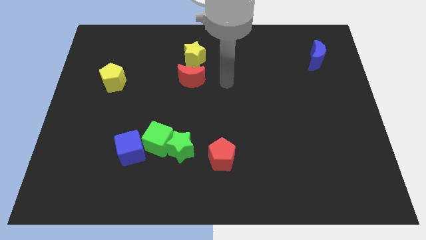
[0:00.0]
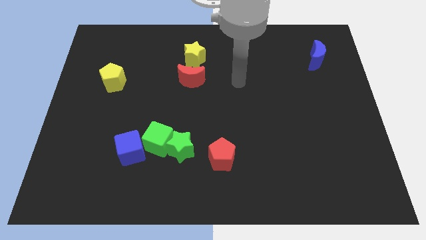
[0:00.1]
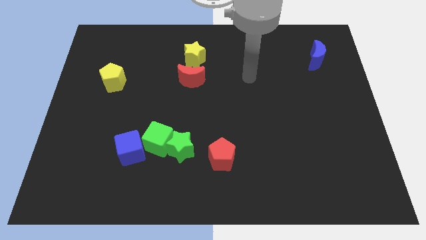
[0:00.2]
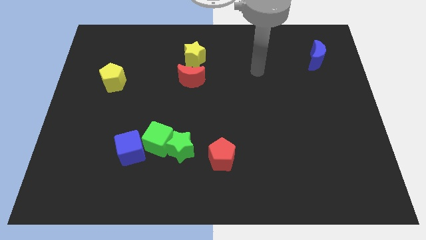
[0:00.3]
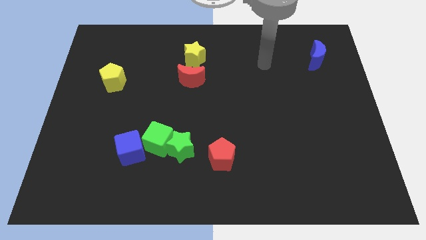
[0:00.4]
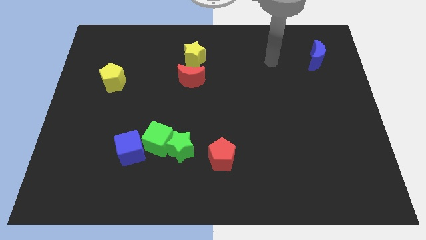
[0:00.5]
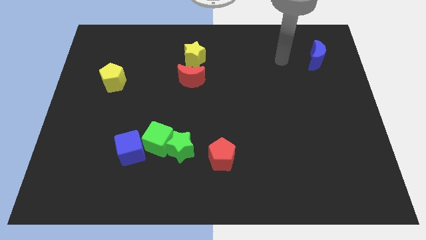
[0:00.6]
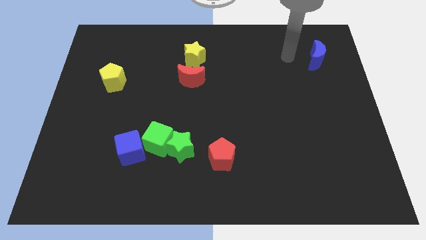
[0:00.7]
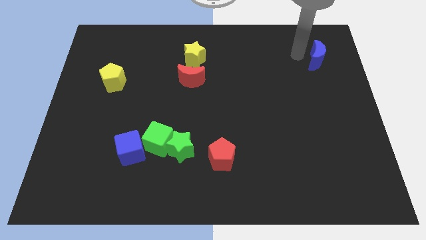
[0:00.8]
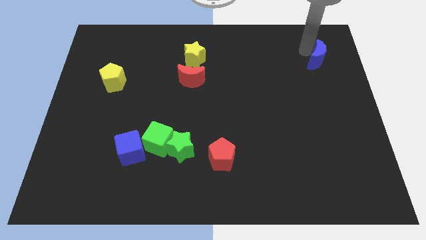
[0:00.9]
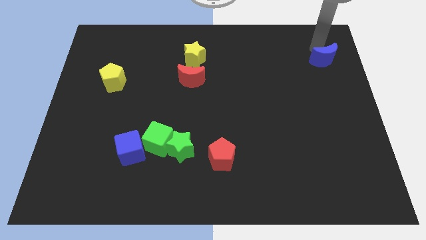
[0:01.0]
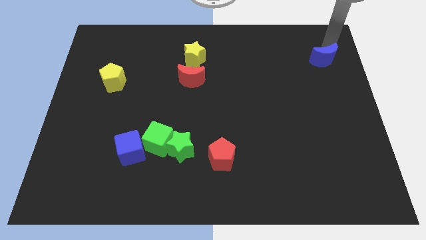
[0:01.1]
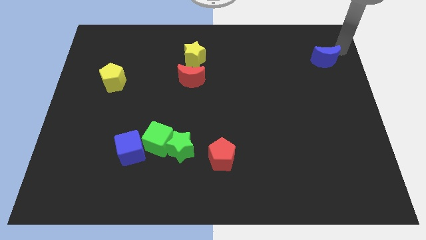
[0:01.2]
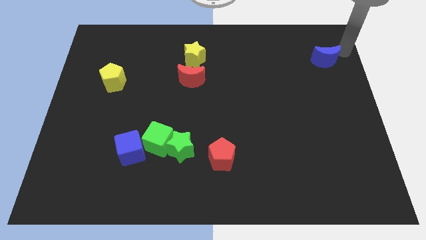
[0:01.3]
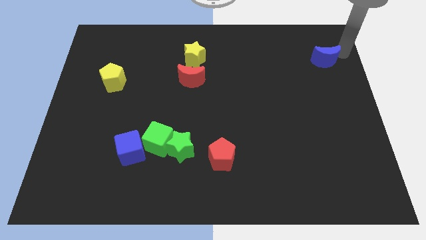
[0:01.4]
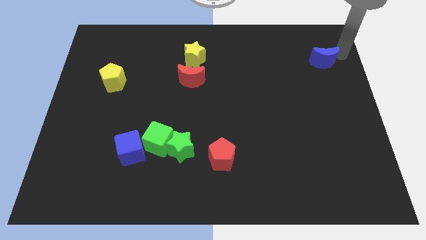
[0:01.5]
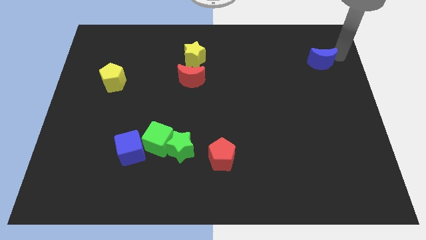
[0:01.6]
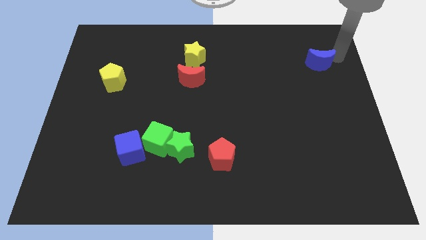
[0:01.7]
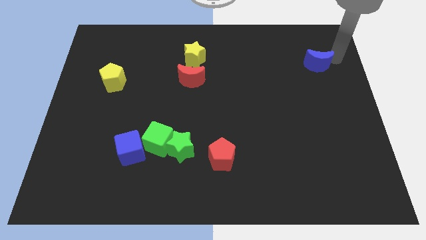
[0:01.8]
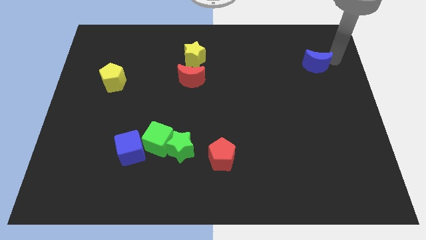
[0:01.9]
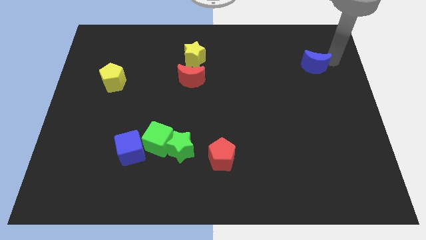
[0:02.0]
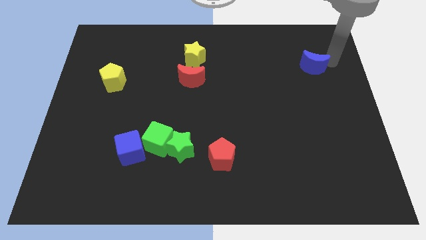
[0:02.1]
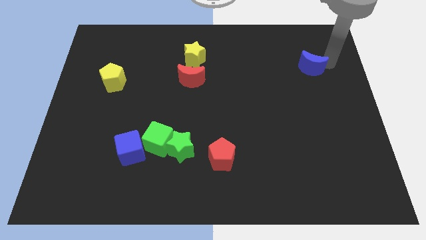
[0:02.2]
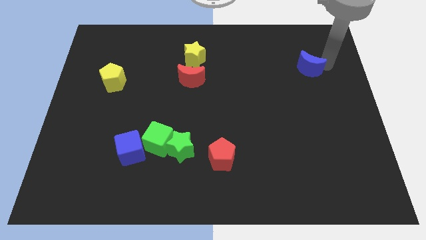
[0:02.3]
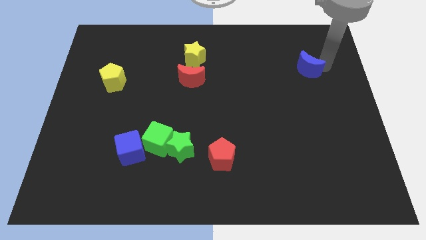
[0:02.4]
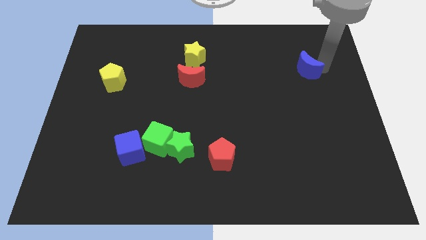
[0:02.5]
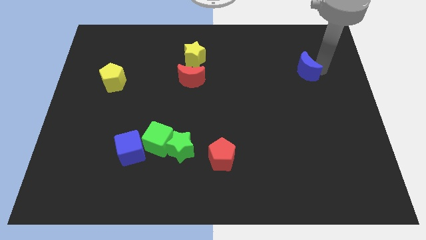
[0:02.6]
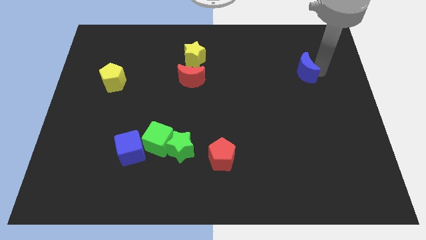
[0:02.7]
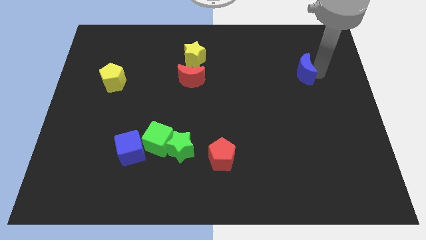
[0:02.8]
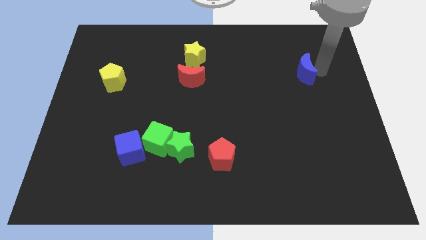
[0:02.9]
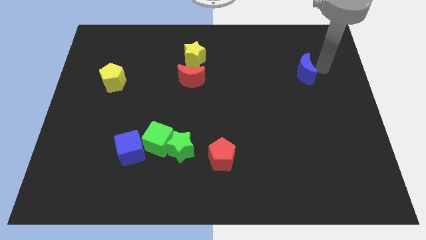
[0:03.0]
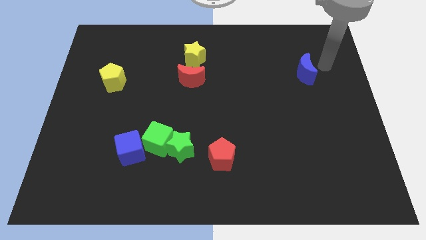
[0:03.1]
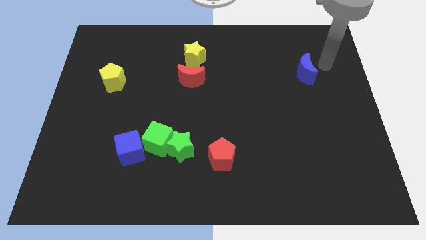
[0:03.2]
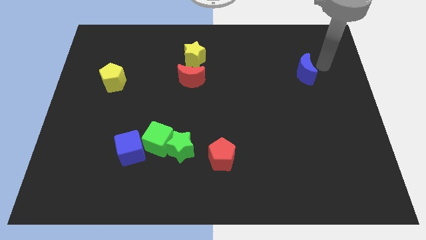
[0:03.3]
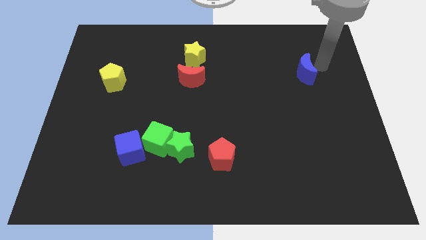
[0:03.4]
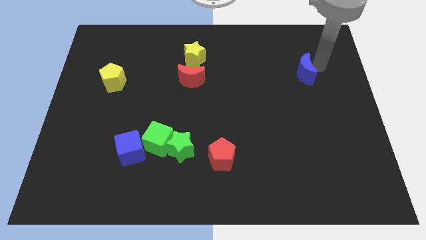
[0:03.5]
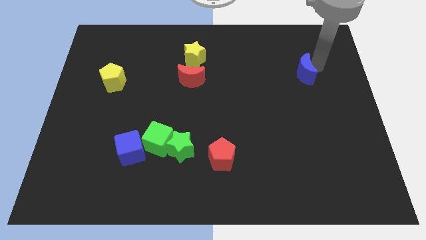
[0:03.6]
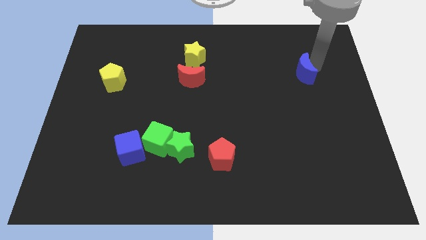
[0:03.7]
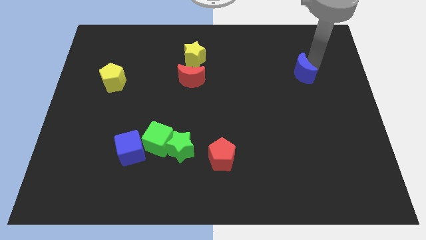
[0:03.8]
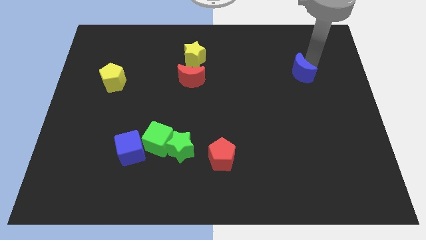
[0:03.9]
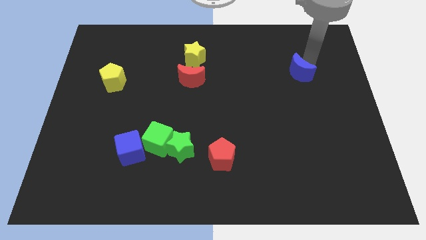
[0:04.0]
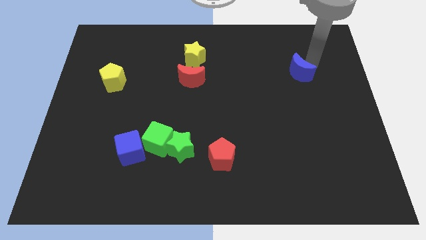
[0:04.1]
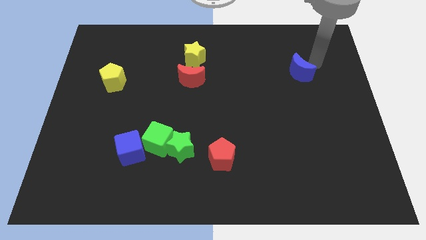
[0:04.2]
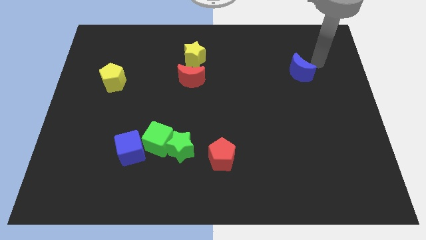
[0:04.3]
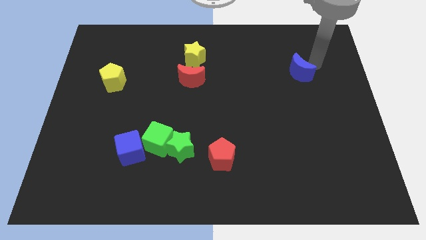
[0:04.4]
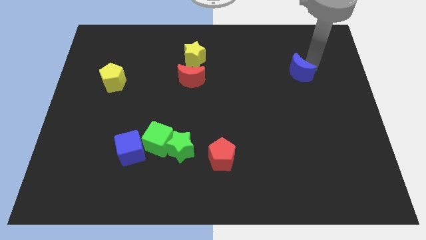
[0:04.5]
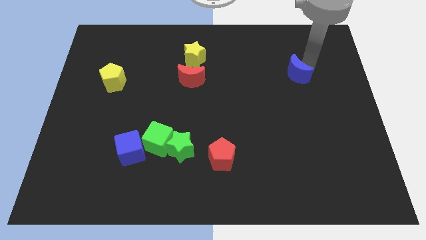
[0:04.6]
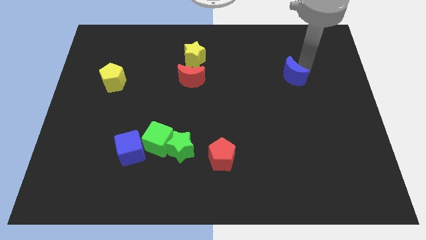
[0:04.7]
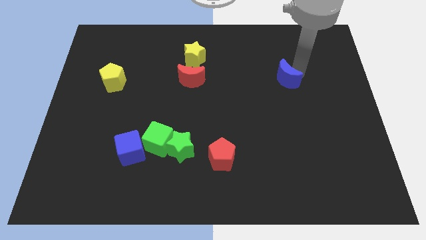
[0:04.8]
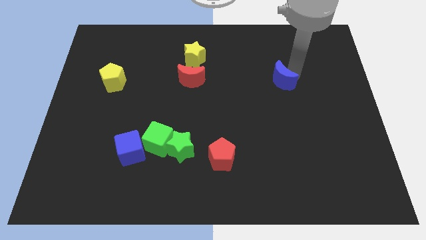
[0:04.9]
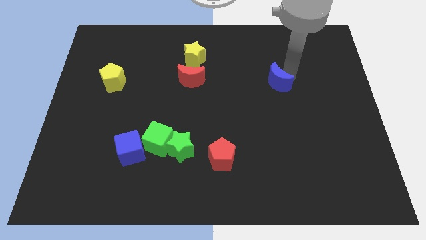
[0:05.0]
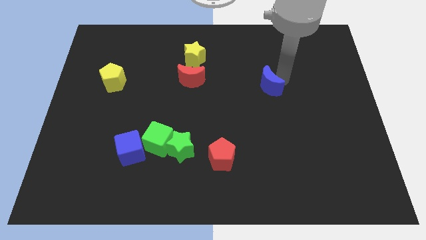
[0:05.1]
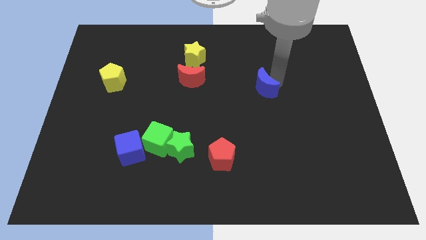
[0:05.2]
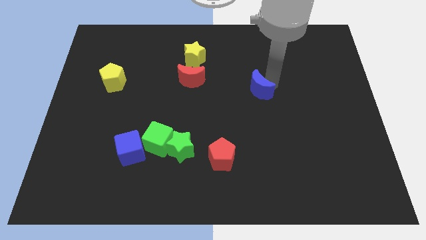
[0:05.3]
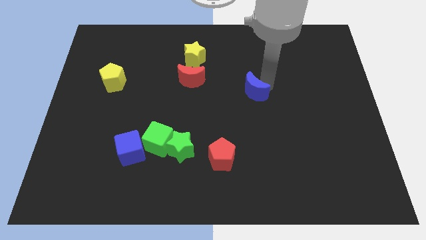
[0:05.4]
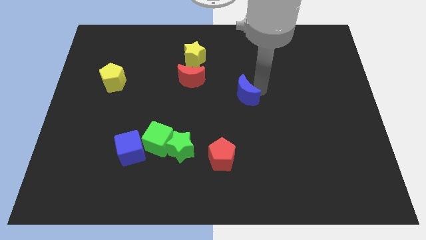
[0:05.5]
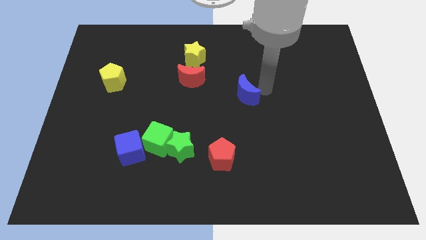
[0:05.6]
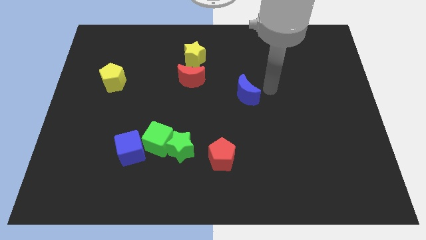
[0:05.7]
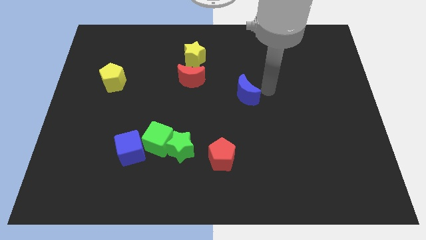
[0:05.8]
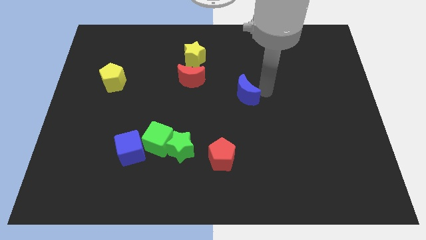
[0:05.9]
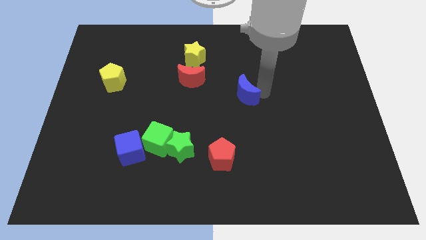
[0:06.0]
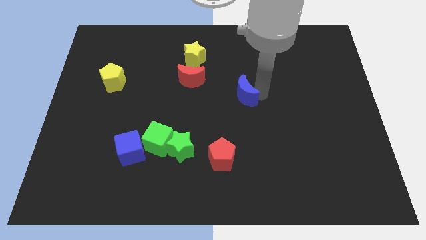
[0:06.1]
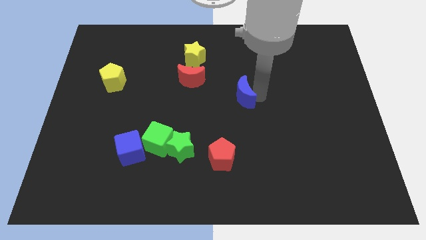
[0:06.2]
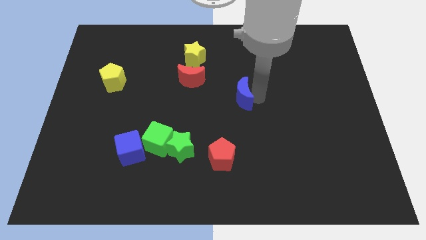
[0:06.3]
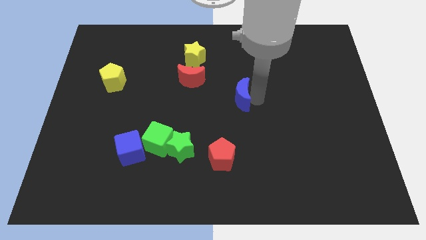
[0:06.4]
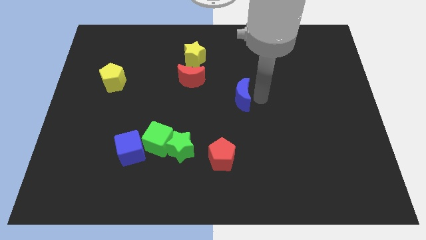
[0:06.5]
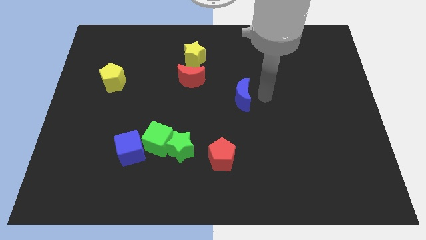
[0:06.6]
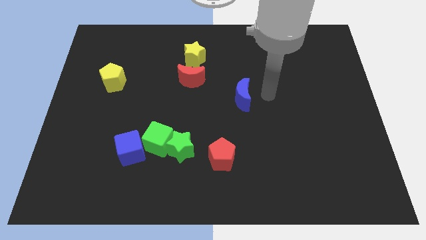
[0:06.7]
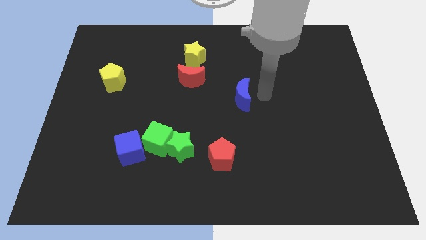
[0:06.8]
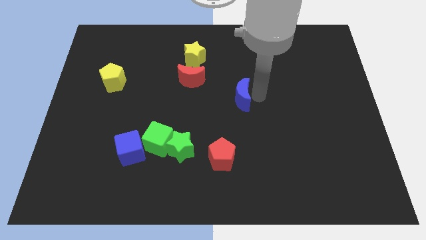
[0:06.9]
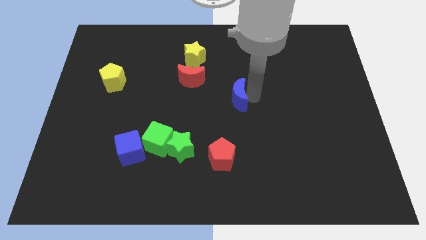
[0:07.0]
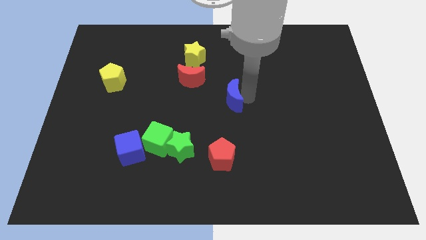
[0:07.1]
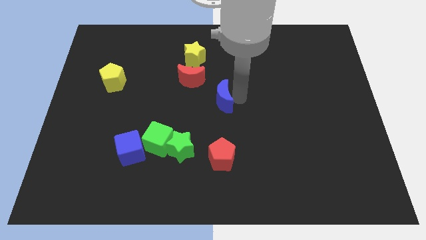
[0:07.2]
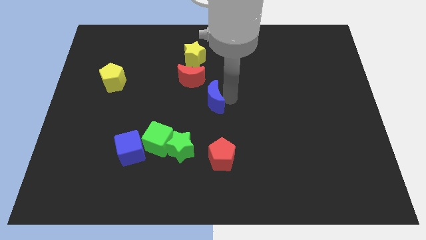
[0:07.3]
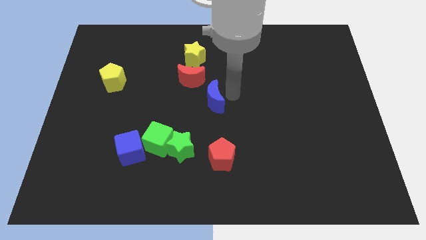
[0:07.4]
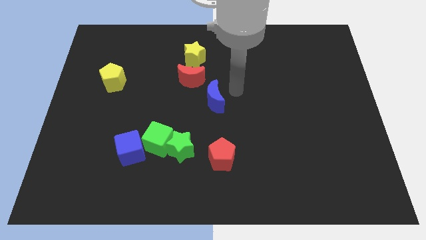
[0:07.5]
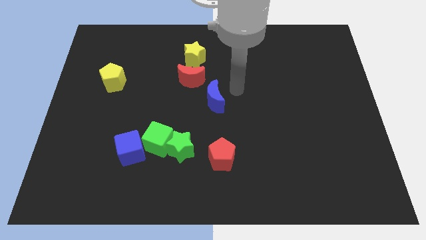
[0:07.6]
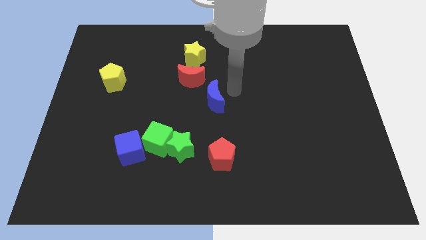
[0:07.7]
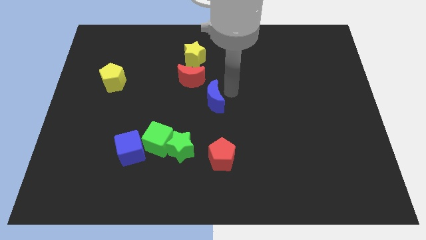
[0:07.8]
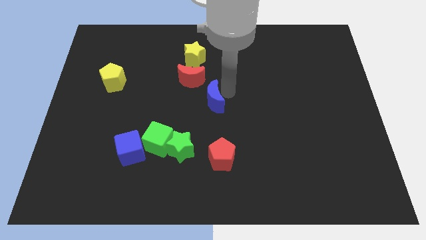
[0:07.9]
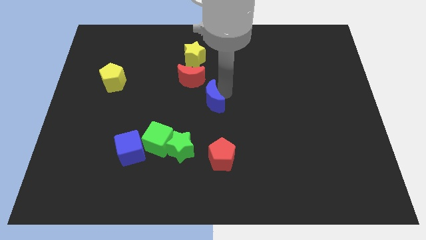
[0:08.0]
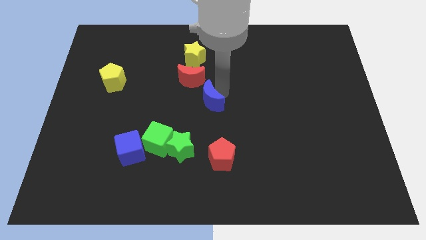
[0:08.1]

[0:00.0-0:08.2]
move the blue moon to the bottom of the red moon
